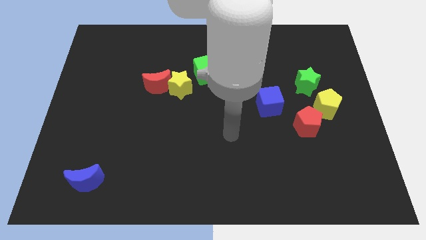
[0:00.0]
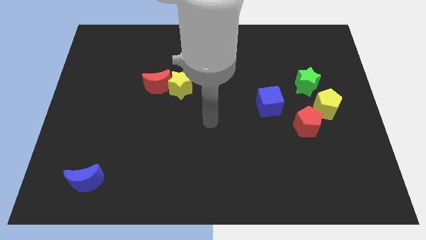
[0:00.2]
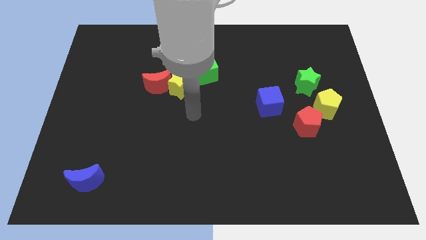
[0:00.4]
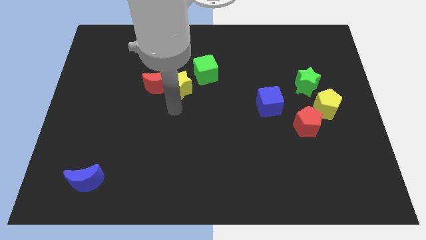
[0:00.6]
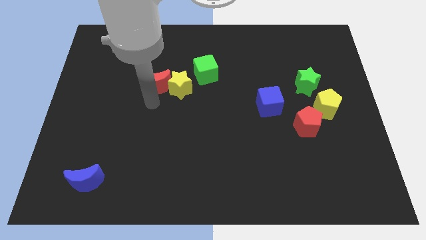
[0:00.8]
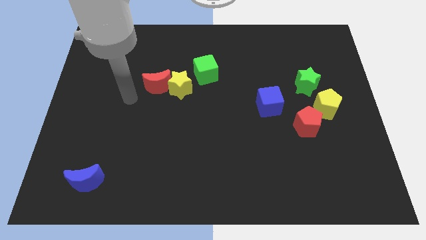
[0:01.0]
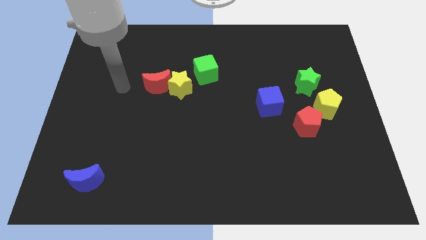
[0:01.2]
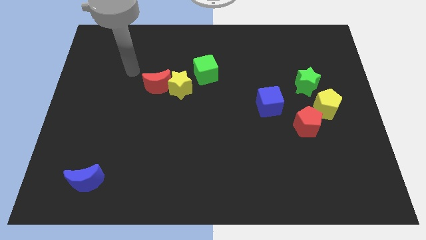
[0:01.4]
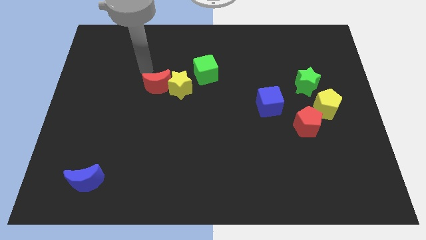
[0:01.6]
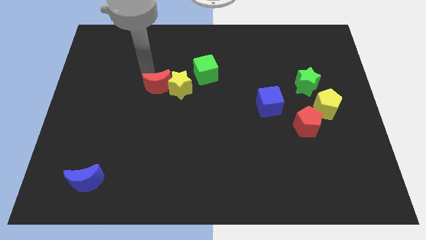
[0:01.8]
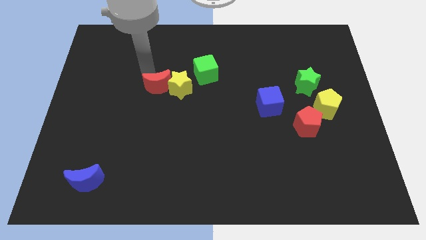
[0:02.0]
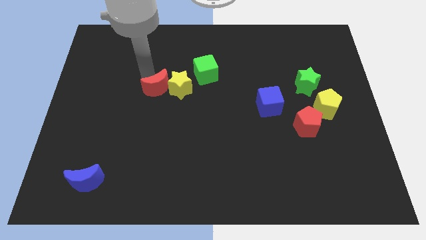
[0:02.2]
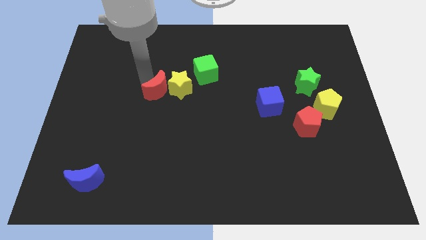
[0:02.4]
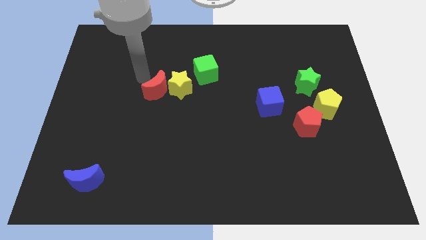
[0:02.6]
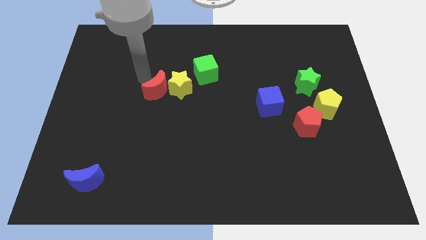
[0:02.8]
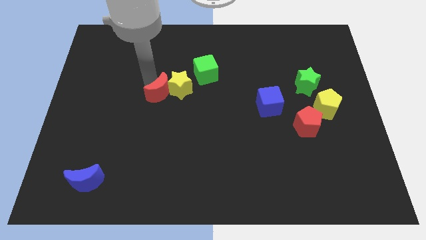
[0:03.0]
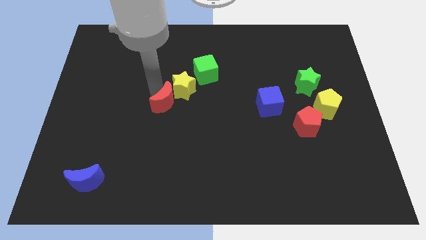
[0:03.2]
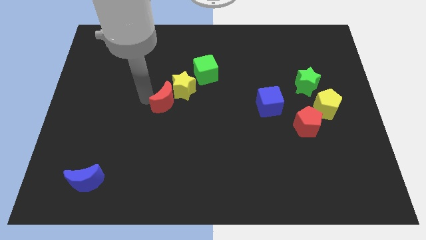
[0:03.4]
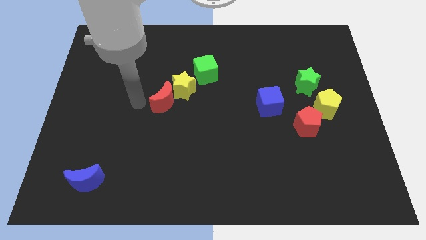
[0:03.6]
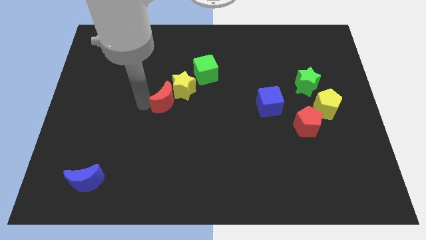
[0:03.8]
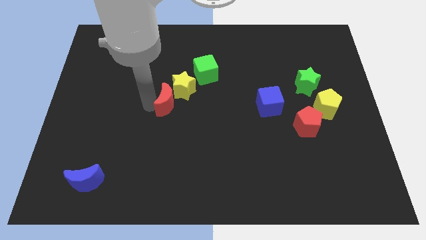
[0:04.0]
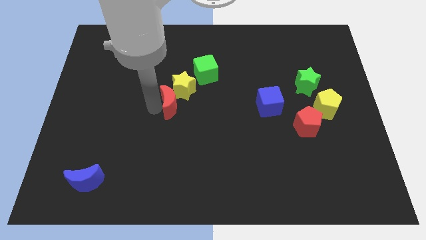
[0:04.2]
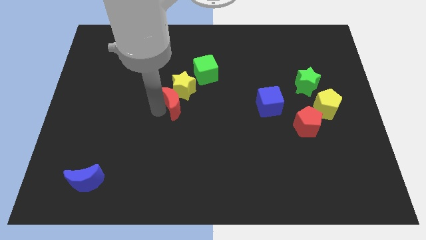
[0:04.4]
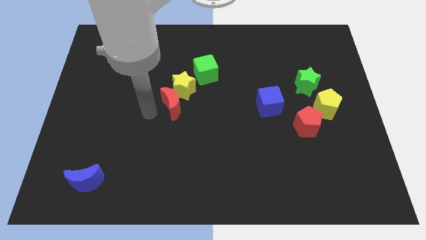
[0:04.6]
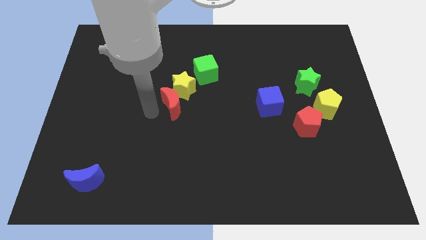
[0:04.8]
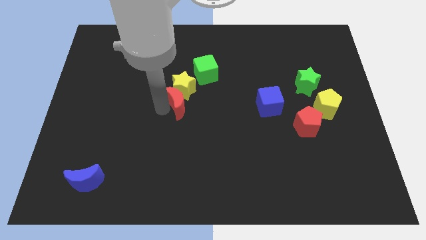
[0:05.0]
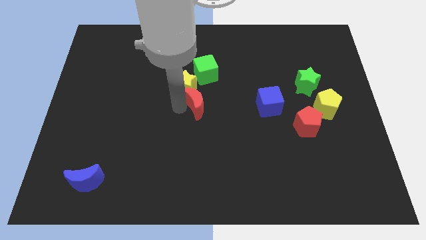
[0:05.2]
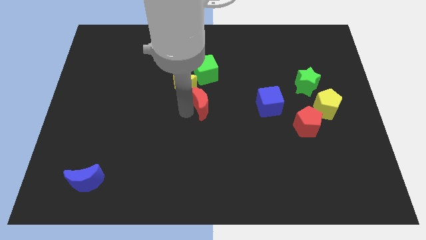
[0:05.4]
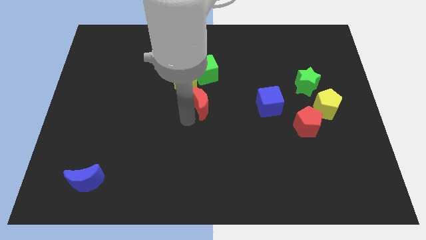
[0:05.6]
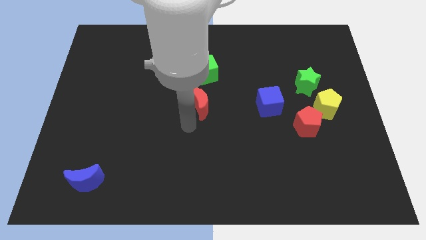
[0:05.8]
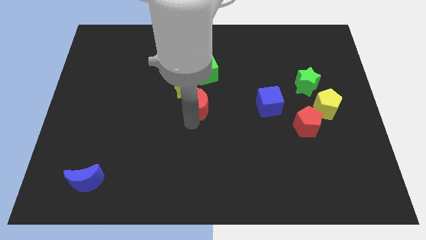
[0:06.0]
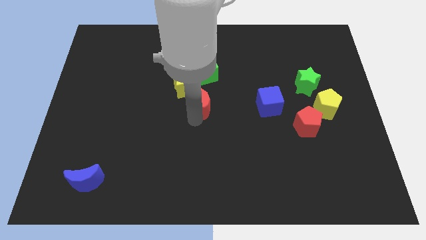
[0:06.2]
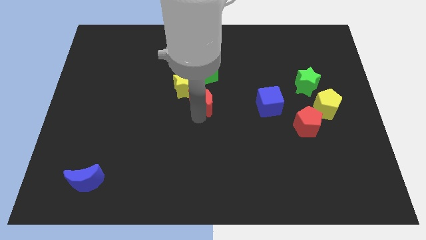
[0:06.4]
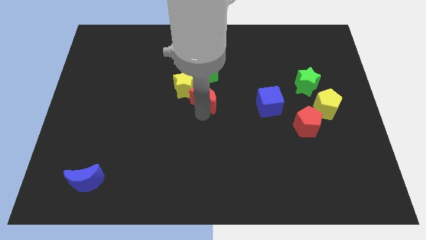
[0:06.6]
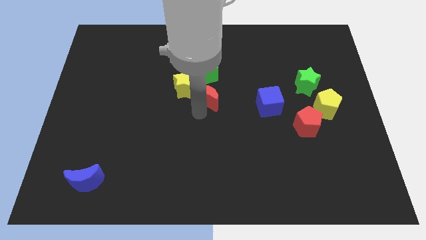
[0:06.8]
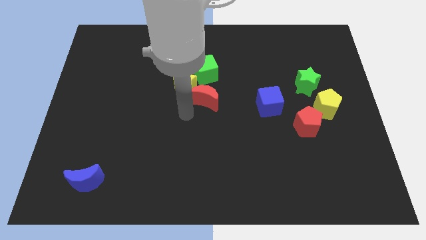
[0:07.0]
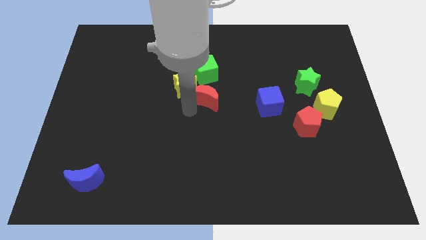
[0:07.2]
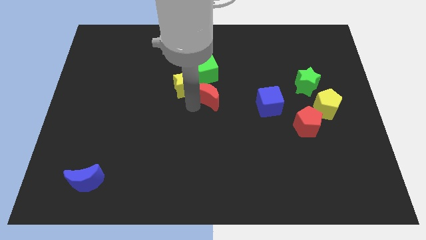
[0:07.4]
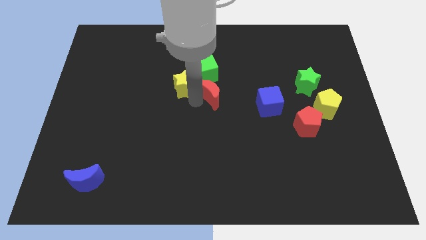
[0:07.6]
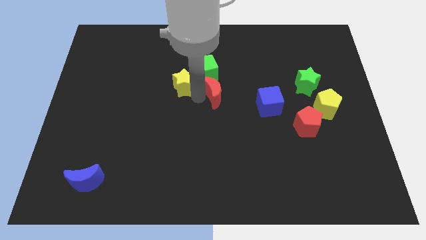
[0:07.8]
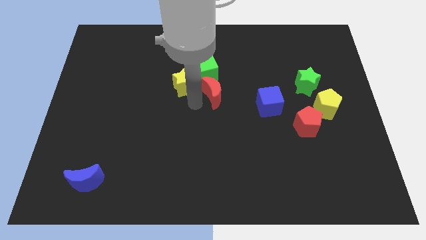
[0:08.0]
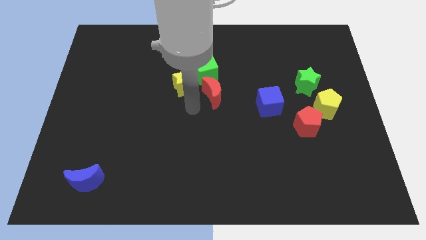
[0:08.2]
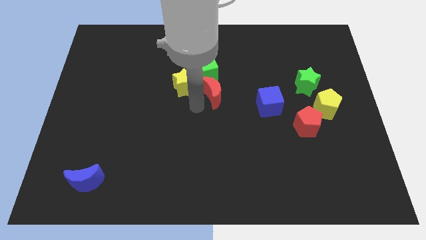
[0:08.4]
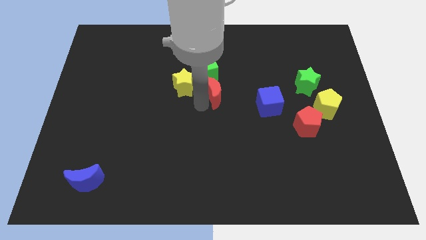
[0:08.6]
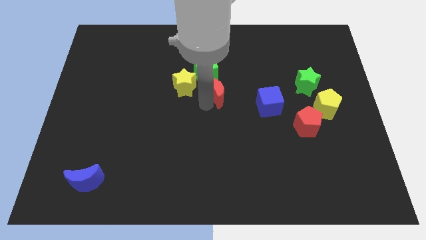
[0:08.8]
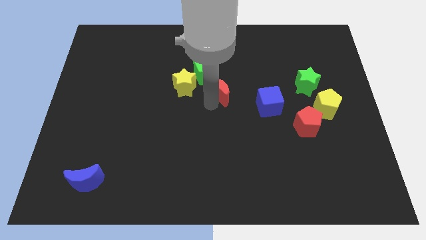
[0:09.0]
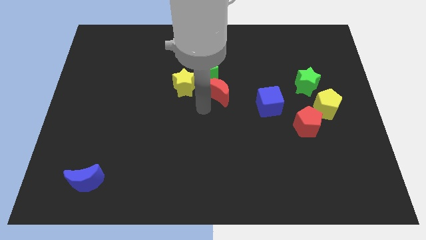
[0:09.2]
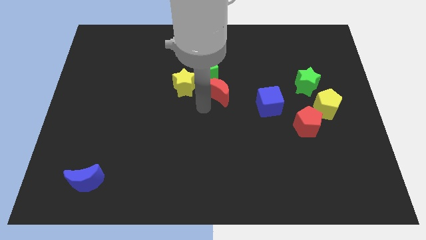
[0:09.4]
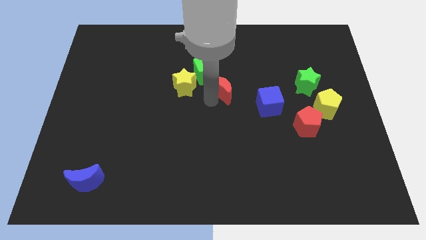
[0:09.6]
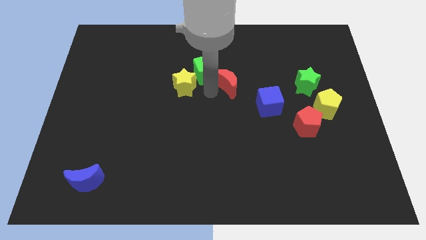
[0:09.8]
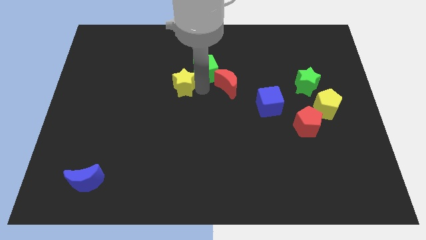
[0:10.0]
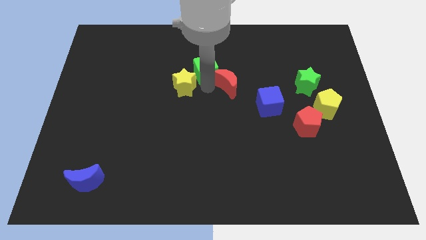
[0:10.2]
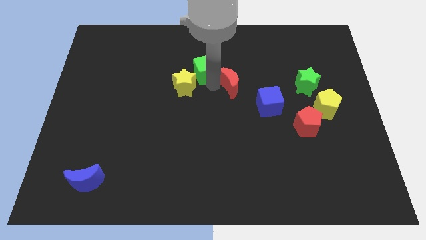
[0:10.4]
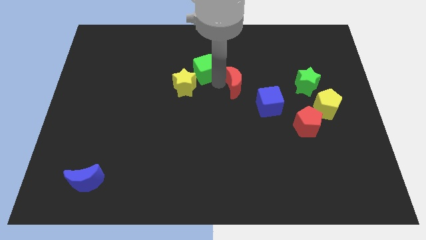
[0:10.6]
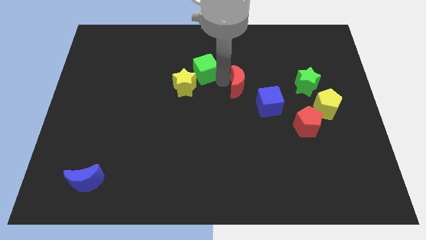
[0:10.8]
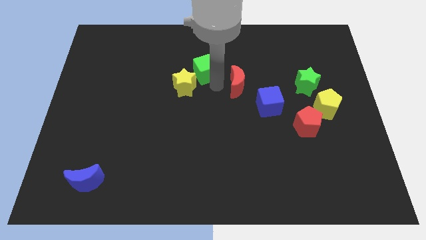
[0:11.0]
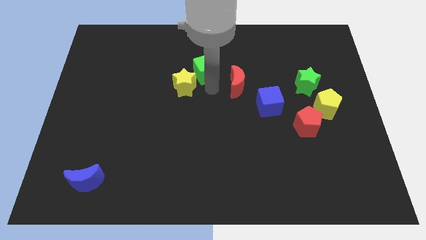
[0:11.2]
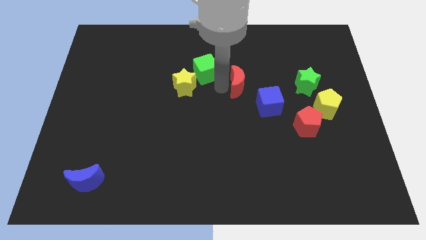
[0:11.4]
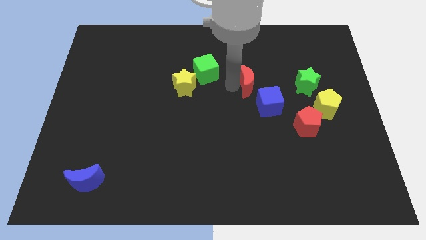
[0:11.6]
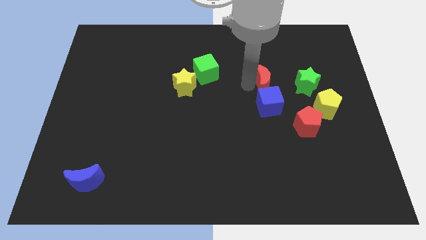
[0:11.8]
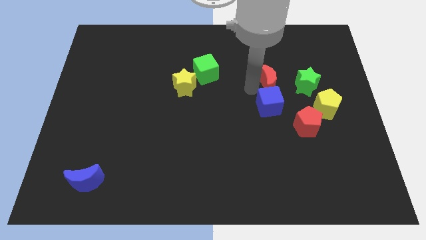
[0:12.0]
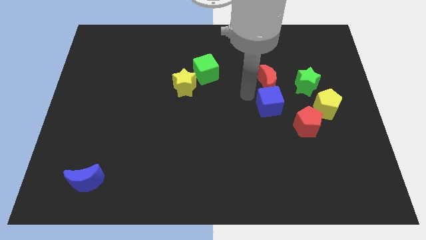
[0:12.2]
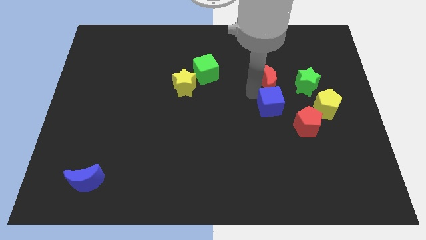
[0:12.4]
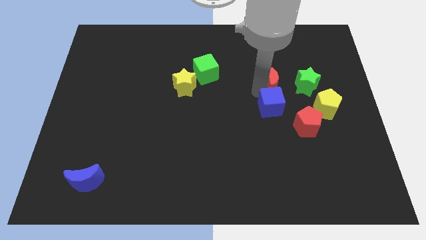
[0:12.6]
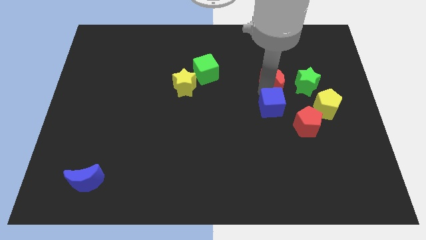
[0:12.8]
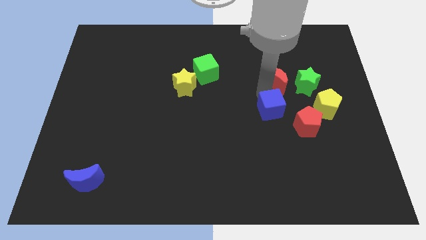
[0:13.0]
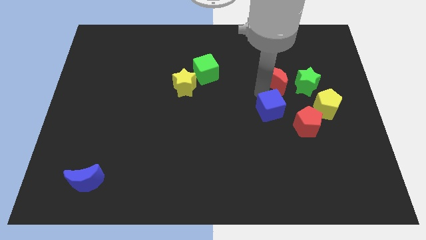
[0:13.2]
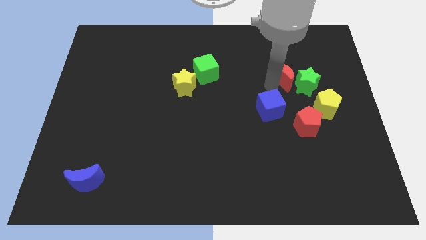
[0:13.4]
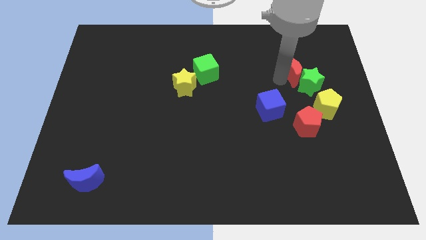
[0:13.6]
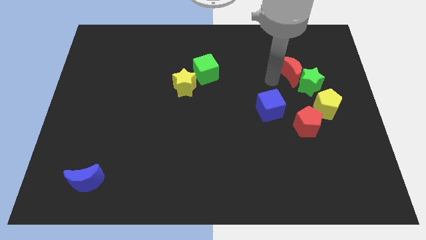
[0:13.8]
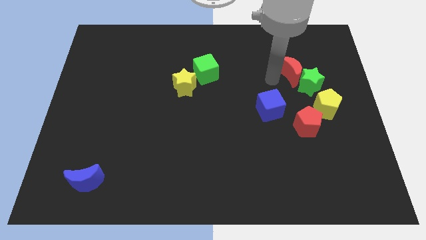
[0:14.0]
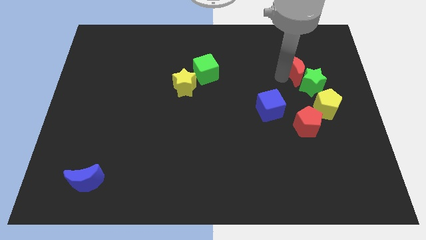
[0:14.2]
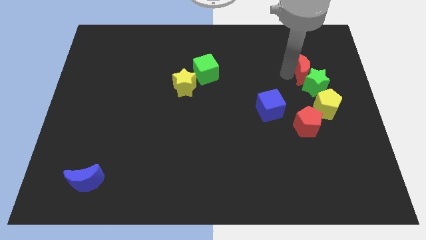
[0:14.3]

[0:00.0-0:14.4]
slide the red moon to the top of the yellow pentagon
